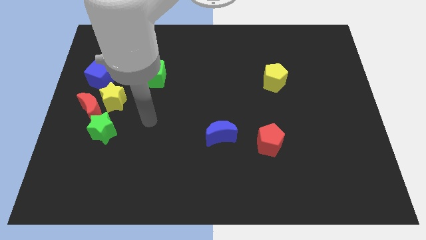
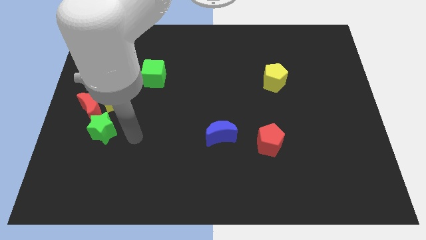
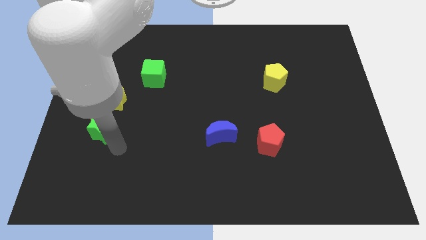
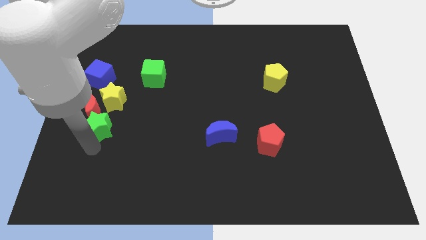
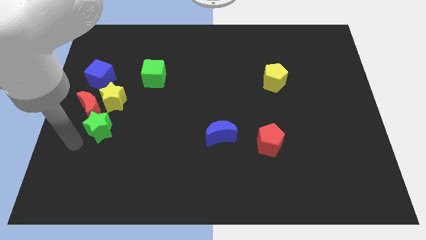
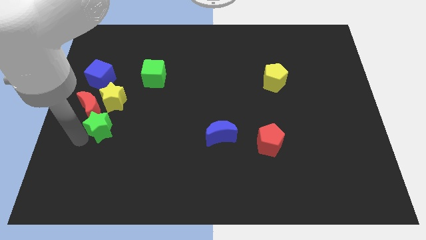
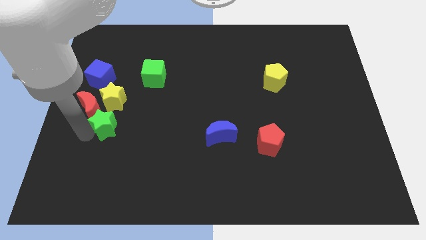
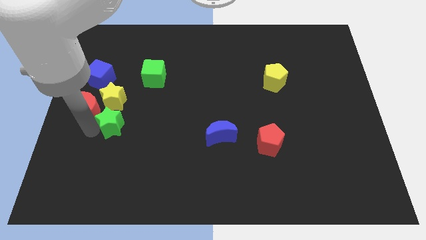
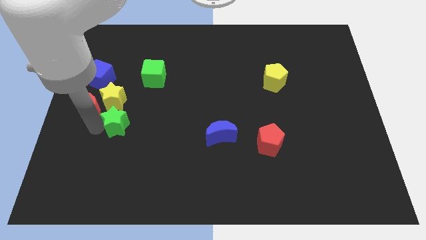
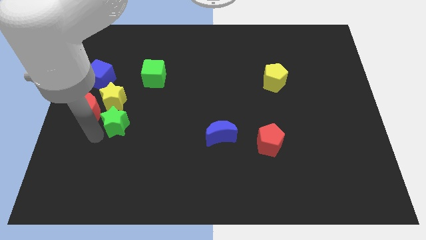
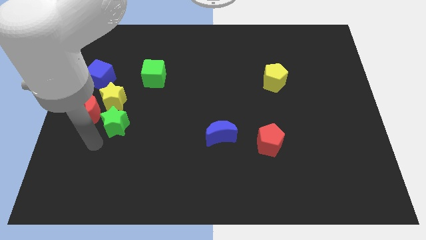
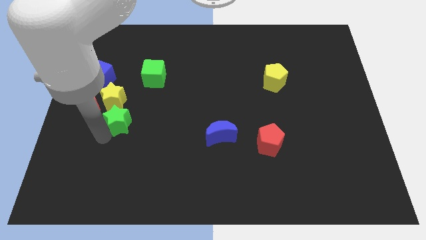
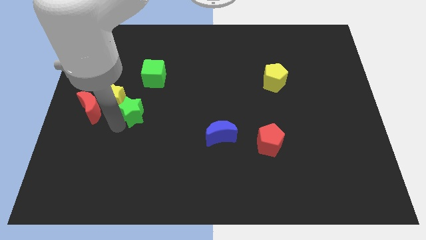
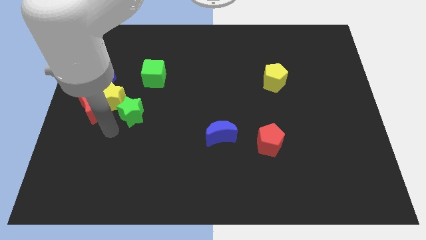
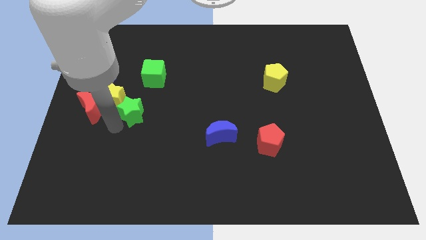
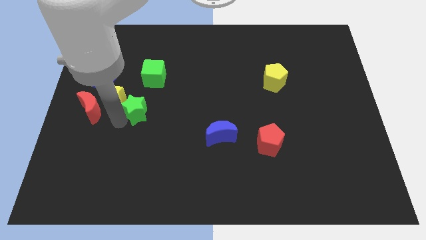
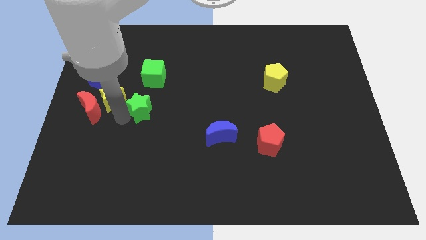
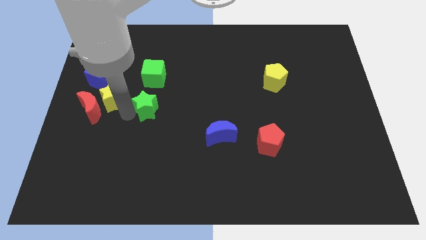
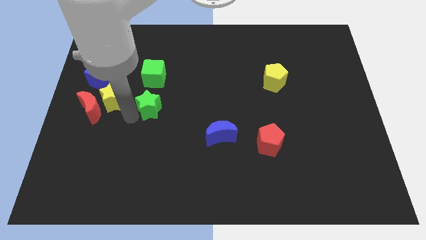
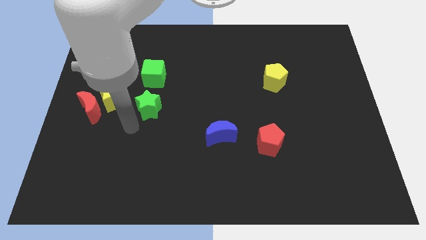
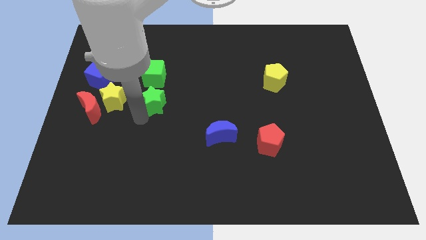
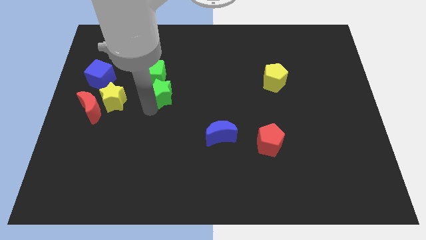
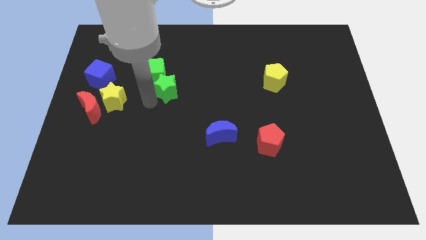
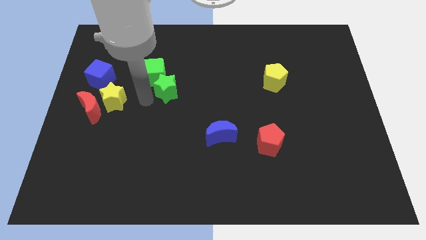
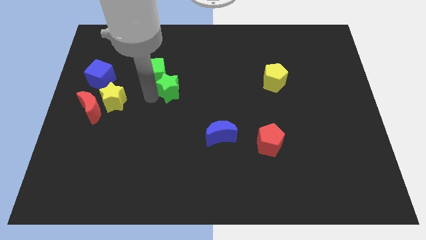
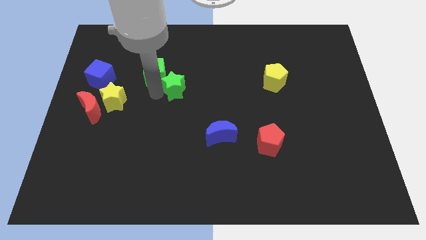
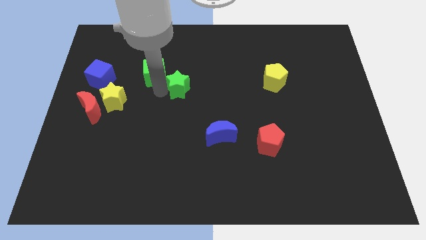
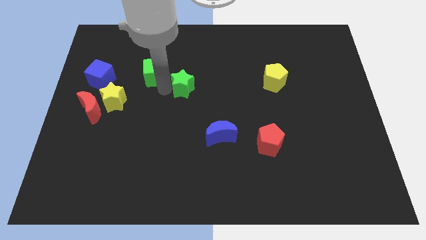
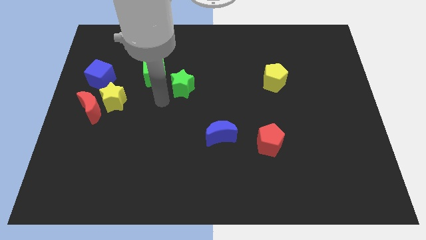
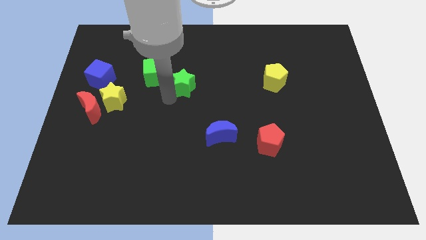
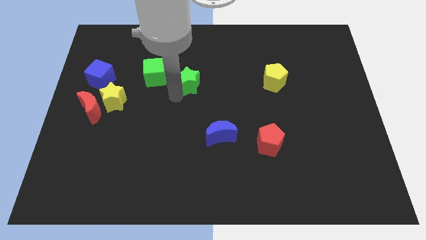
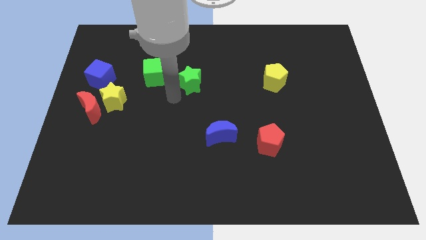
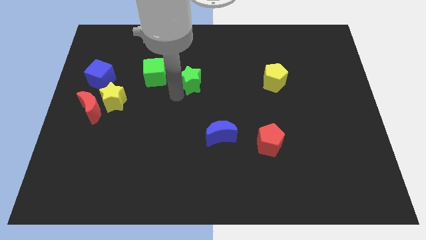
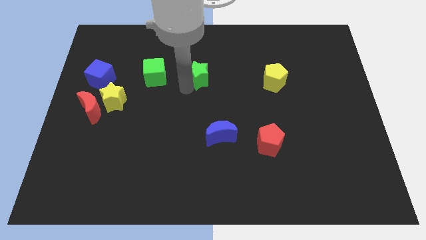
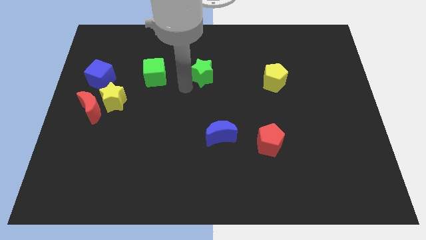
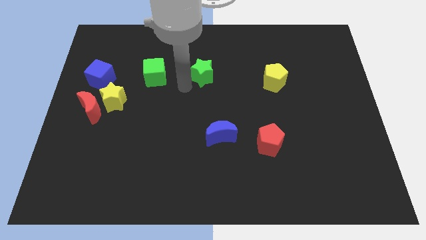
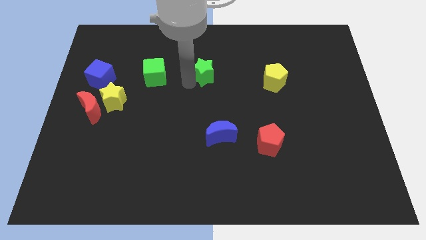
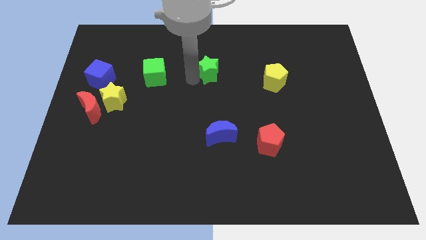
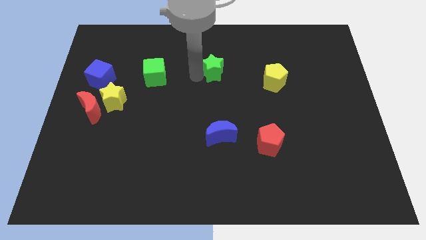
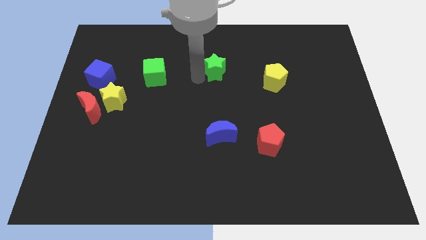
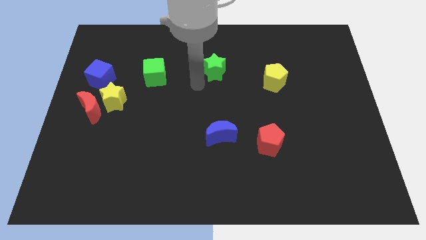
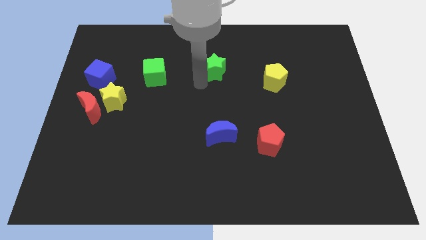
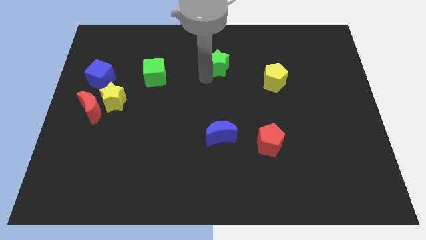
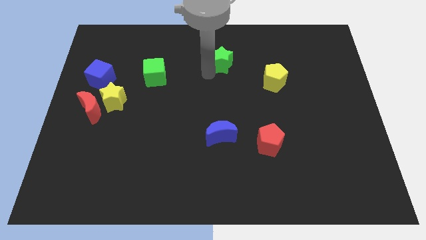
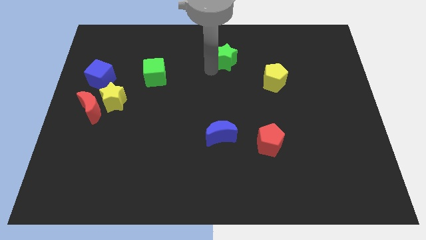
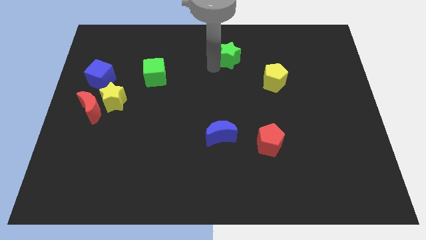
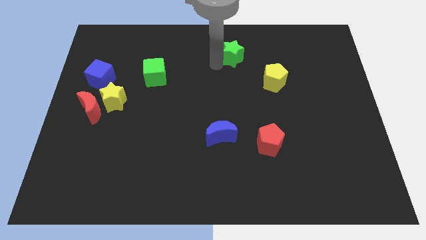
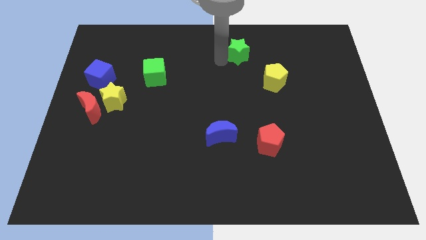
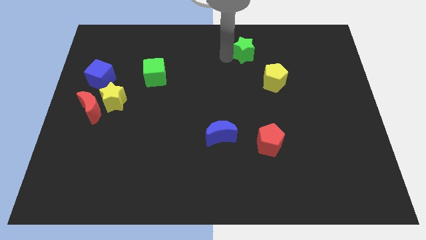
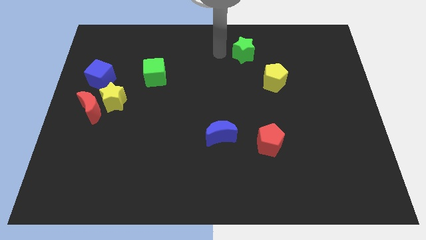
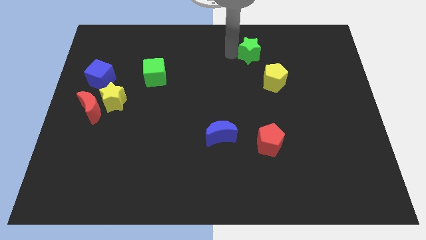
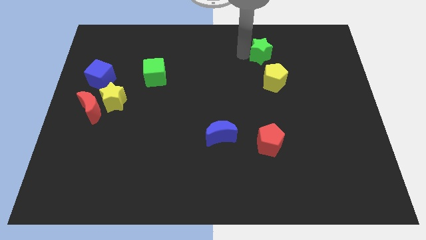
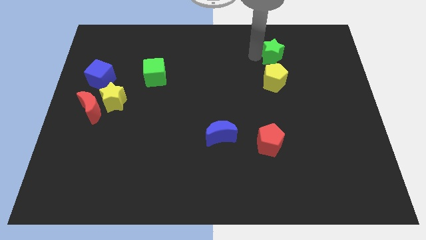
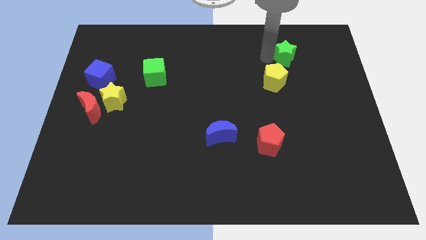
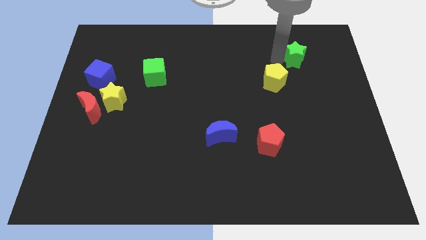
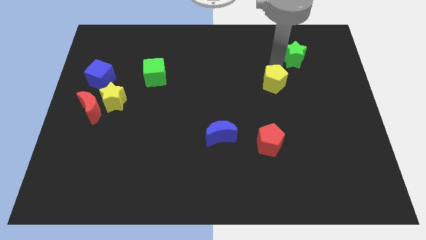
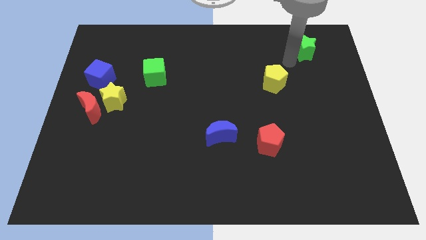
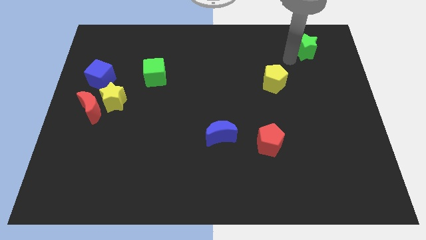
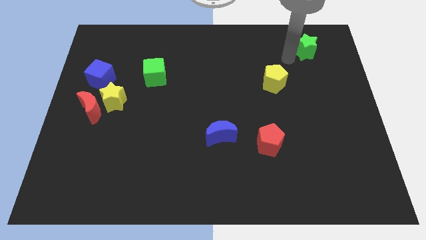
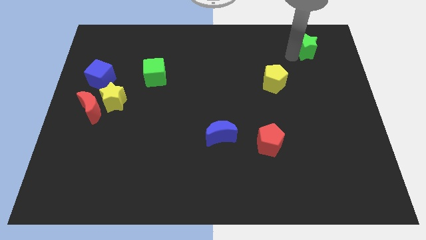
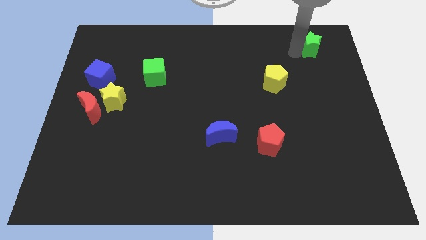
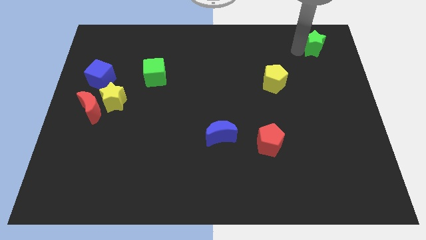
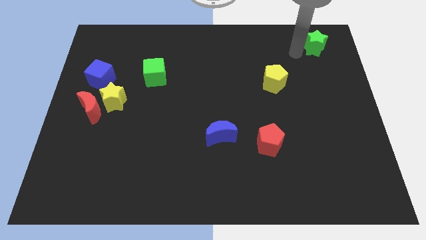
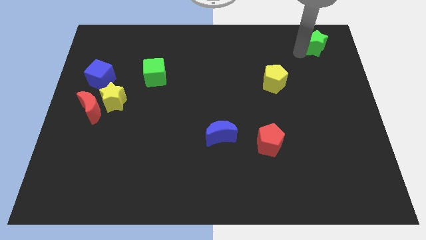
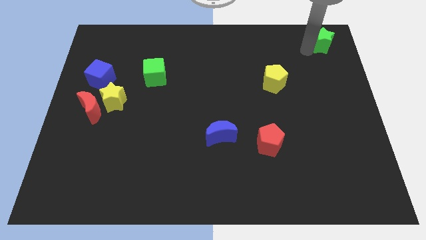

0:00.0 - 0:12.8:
slide the green star to the top right corner
